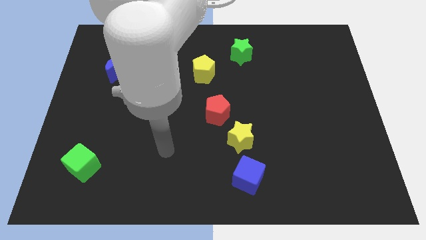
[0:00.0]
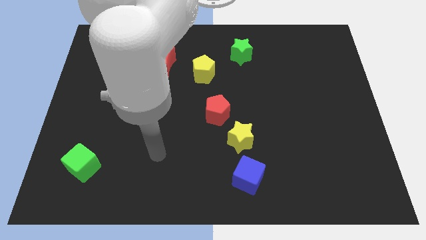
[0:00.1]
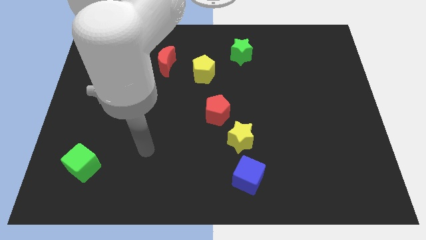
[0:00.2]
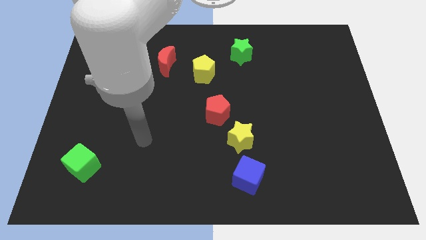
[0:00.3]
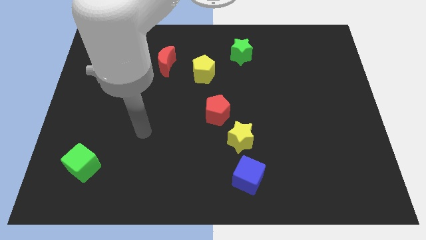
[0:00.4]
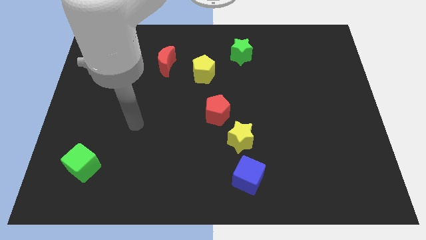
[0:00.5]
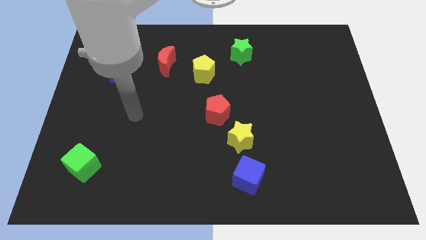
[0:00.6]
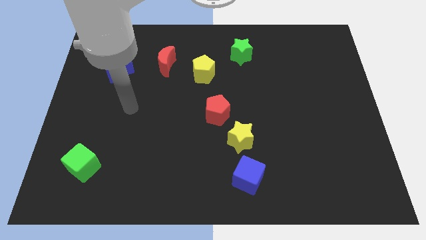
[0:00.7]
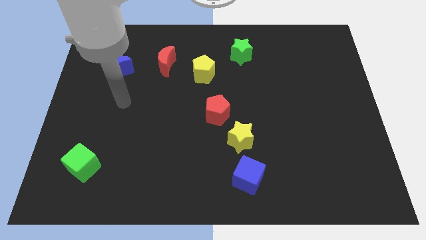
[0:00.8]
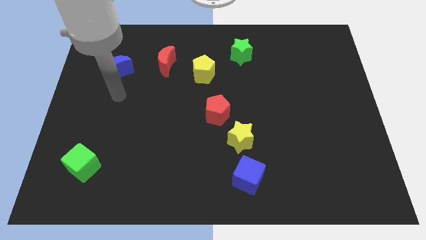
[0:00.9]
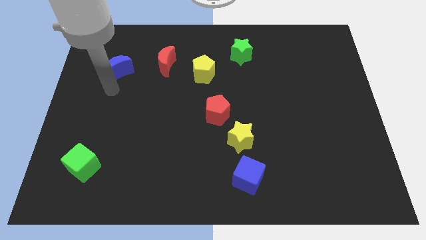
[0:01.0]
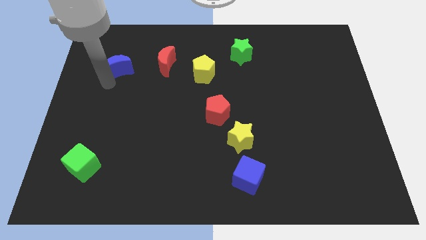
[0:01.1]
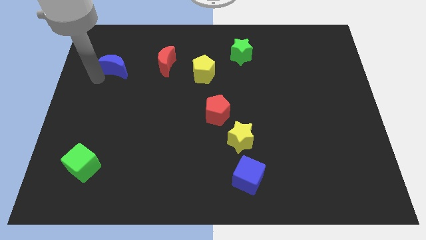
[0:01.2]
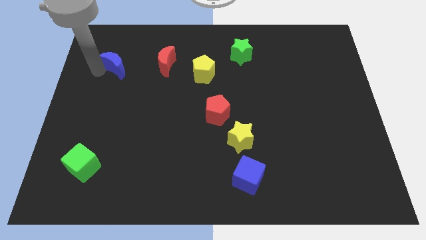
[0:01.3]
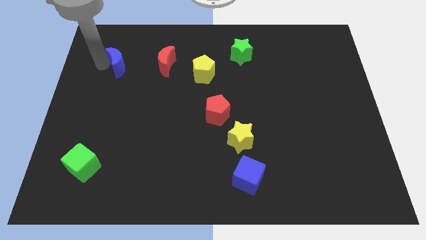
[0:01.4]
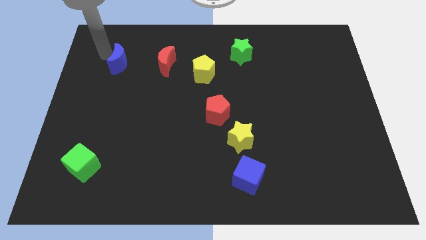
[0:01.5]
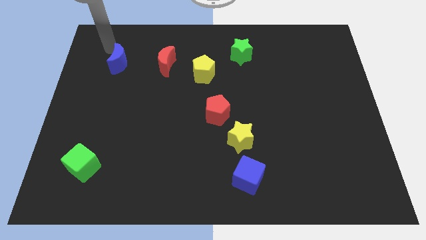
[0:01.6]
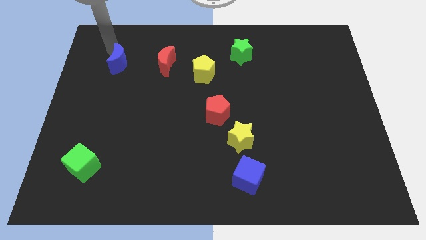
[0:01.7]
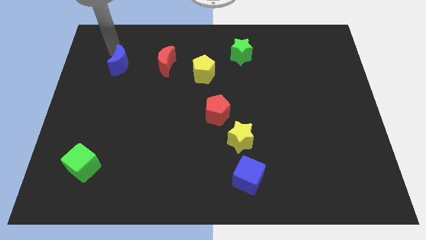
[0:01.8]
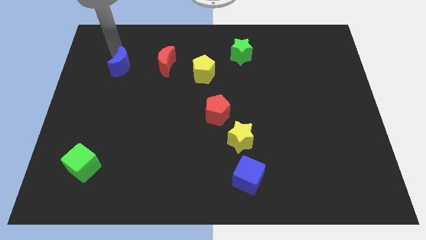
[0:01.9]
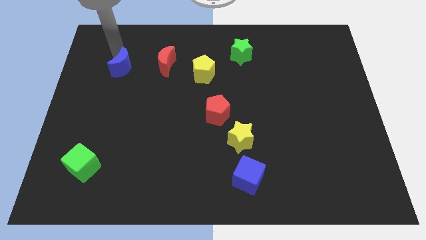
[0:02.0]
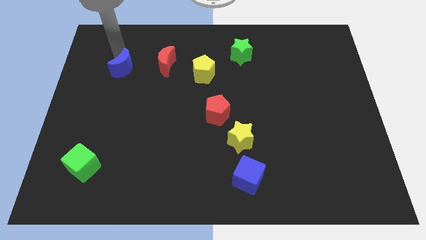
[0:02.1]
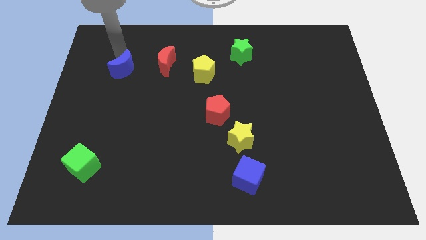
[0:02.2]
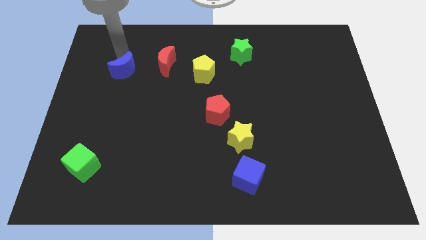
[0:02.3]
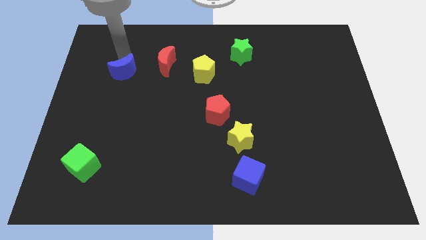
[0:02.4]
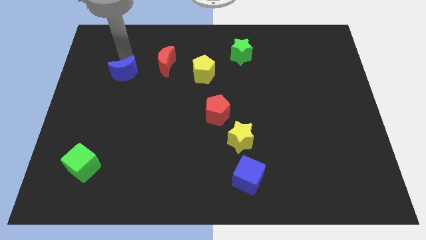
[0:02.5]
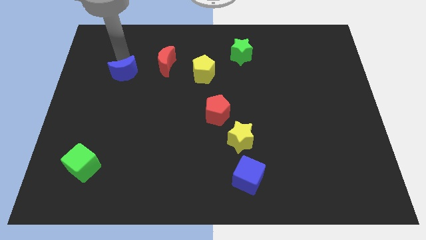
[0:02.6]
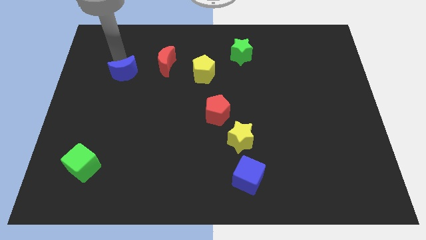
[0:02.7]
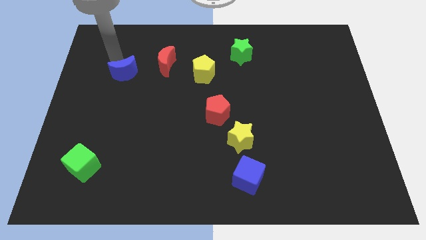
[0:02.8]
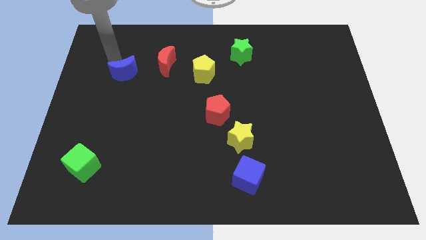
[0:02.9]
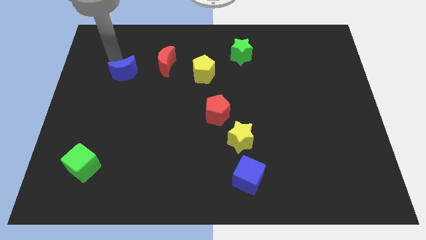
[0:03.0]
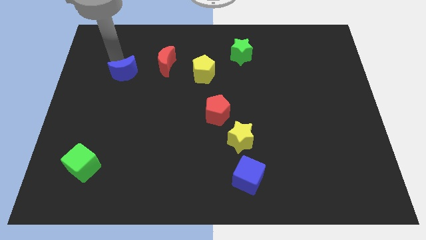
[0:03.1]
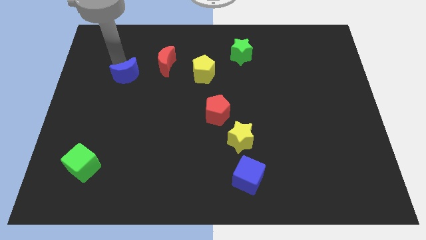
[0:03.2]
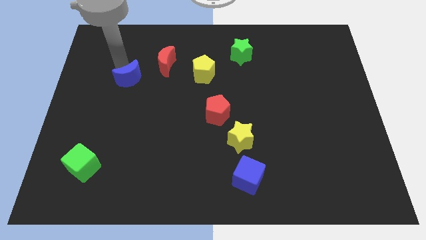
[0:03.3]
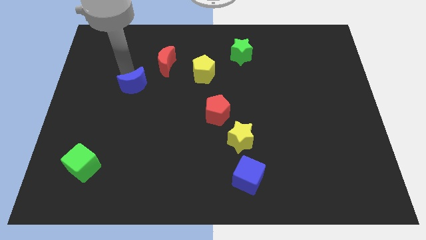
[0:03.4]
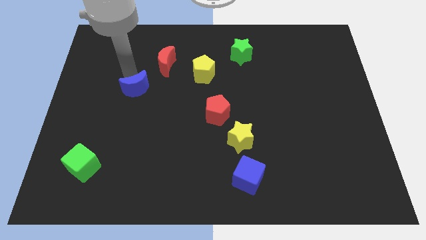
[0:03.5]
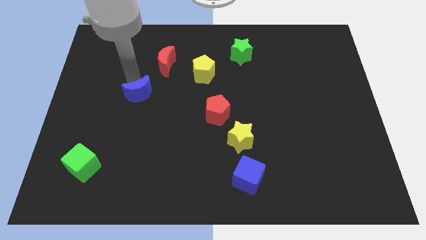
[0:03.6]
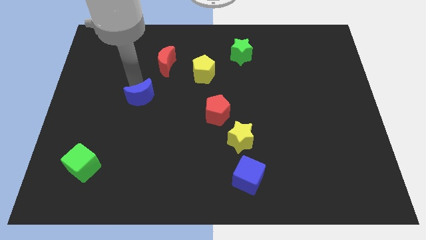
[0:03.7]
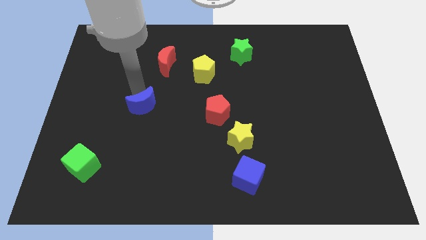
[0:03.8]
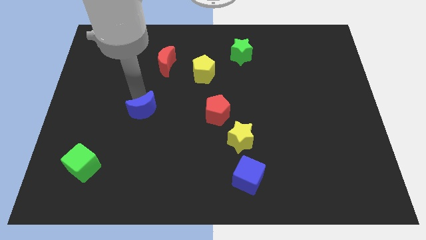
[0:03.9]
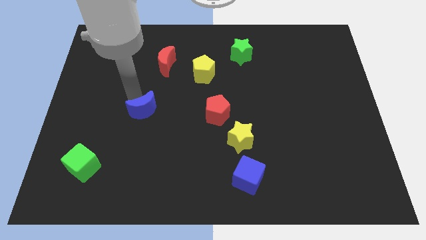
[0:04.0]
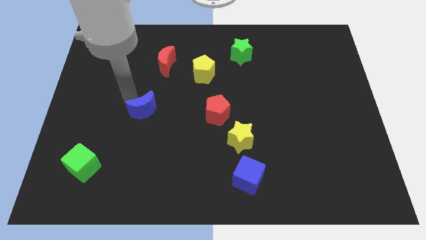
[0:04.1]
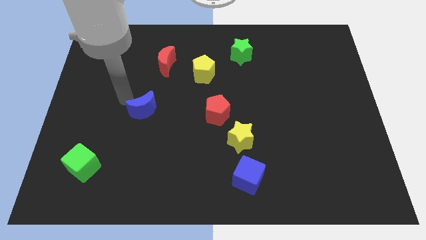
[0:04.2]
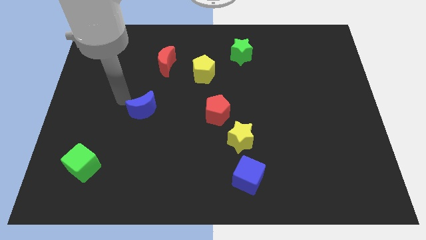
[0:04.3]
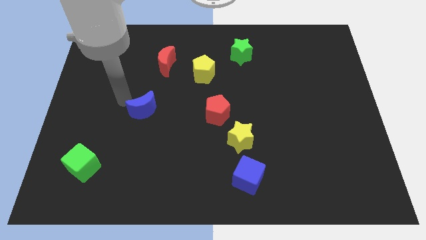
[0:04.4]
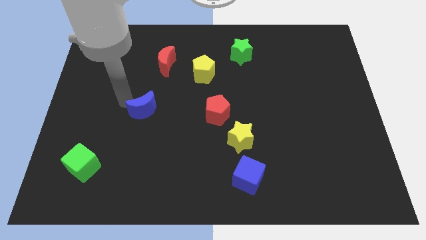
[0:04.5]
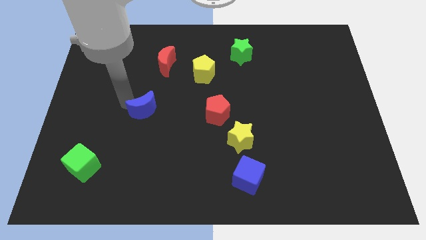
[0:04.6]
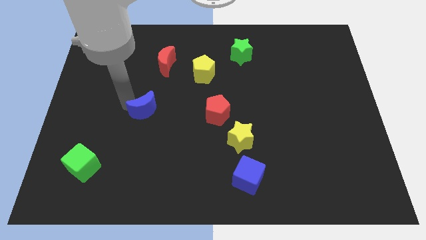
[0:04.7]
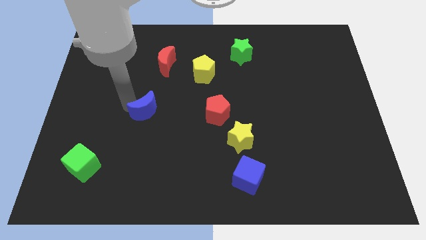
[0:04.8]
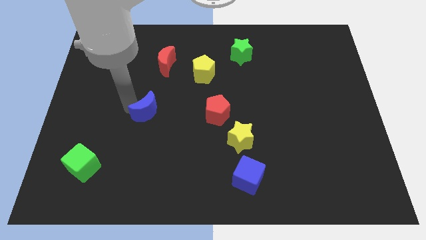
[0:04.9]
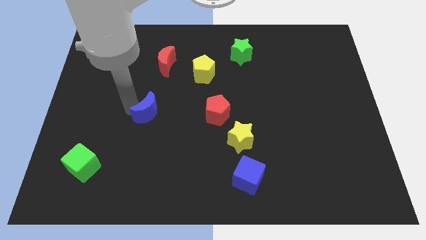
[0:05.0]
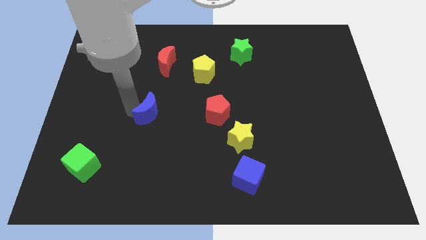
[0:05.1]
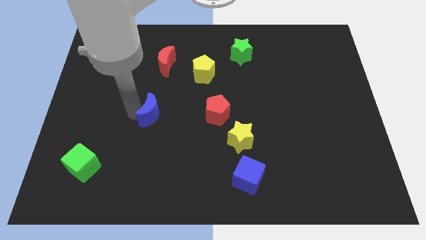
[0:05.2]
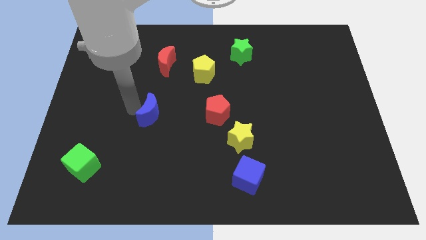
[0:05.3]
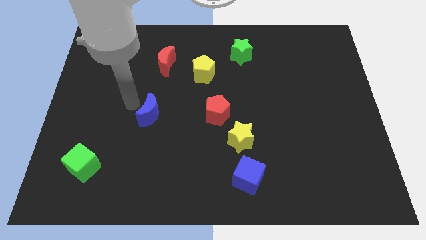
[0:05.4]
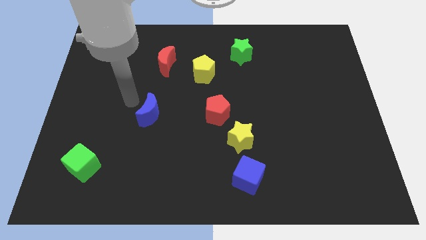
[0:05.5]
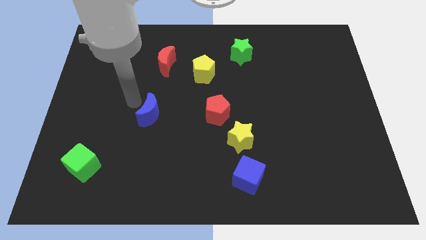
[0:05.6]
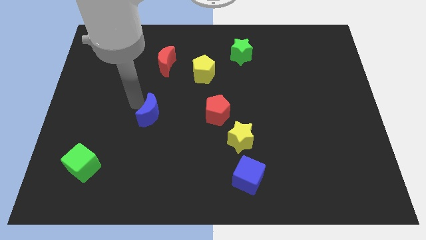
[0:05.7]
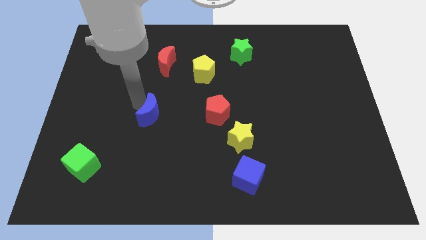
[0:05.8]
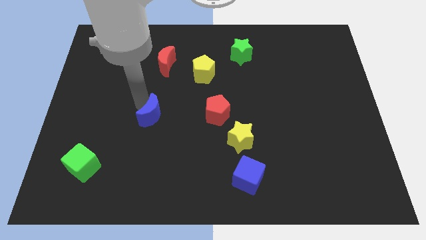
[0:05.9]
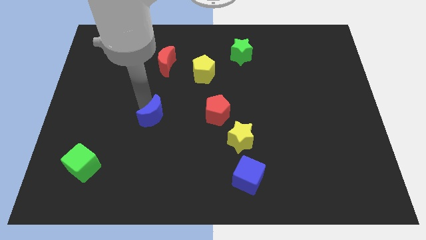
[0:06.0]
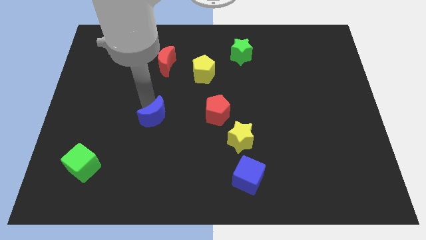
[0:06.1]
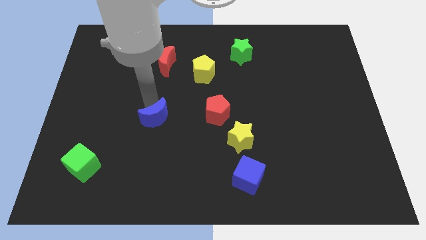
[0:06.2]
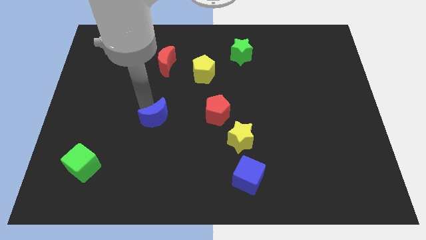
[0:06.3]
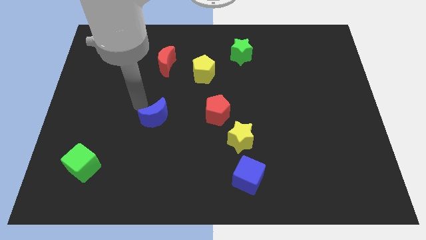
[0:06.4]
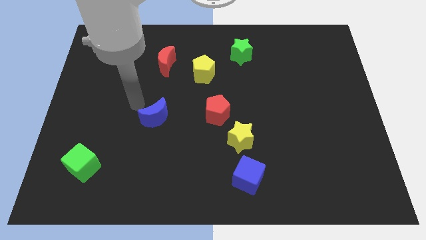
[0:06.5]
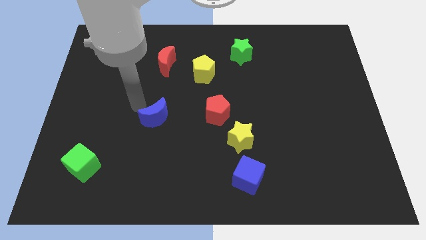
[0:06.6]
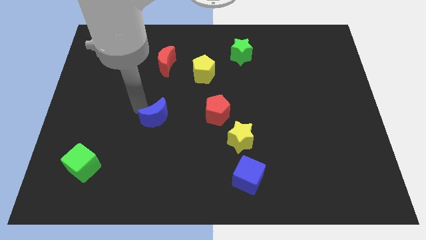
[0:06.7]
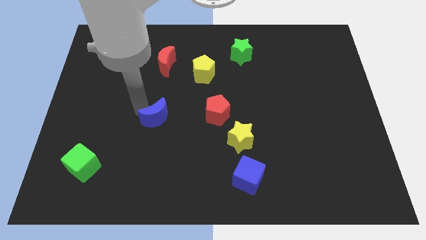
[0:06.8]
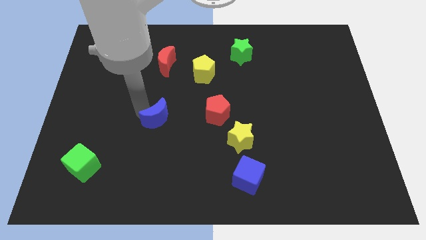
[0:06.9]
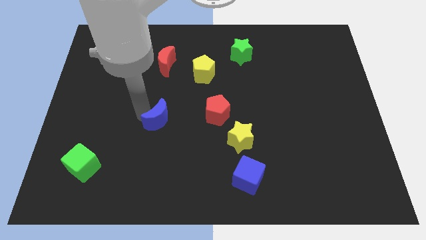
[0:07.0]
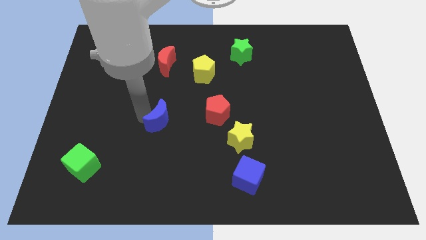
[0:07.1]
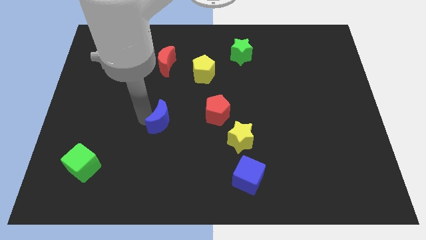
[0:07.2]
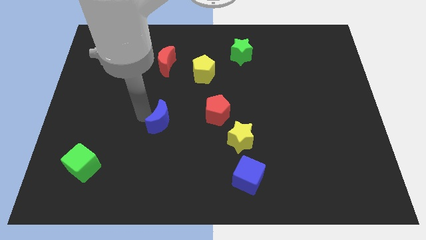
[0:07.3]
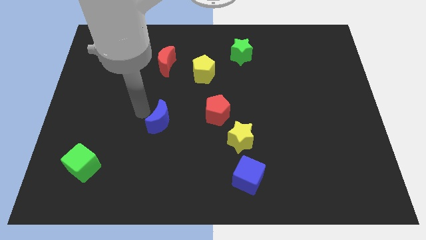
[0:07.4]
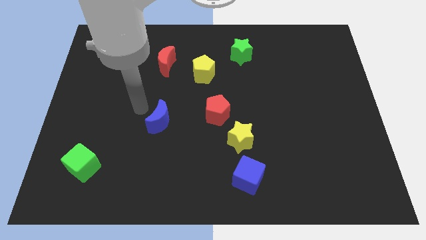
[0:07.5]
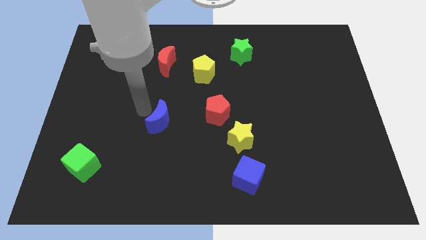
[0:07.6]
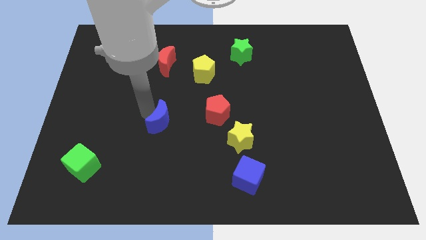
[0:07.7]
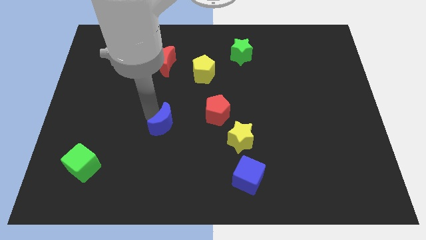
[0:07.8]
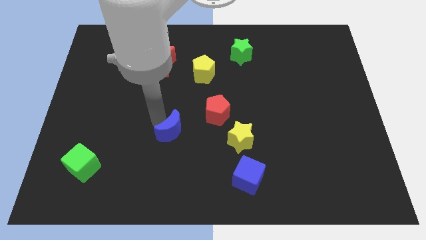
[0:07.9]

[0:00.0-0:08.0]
put the blue moon left of the yellow star
